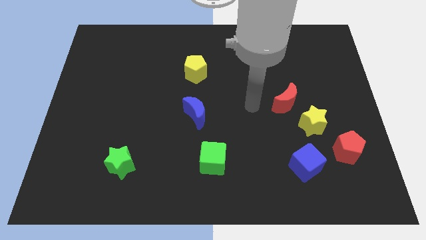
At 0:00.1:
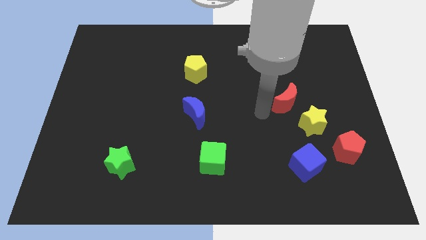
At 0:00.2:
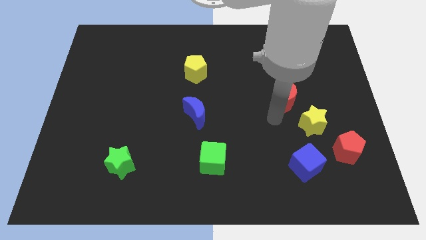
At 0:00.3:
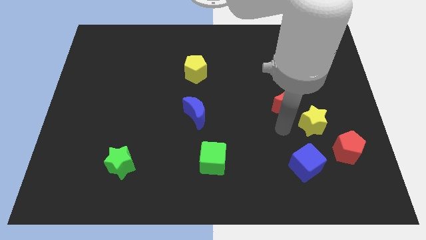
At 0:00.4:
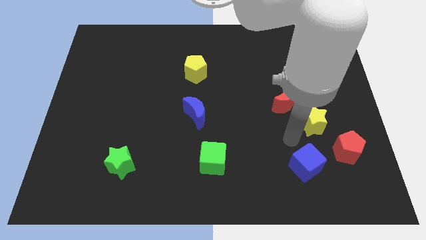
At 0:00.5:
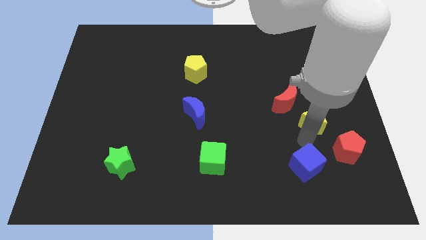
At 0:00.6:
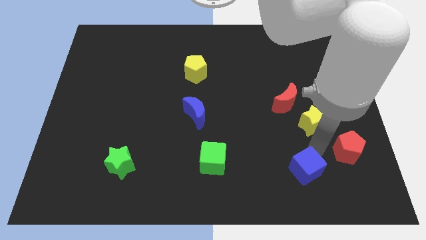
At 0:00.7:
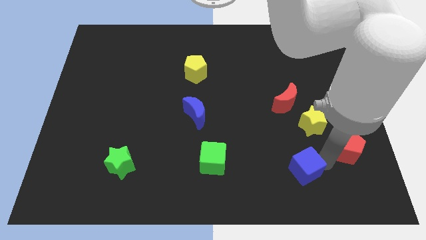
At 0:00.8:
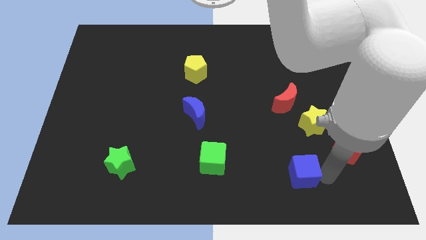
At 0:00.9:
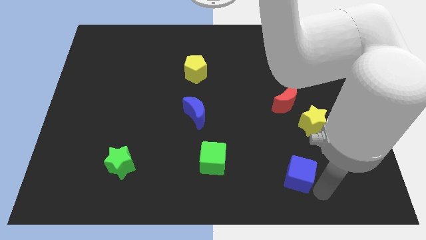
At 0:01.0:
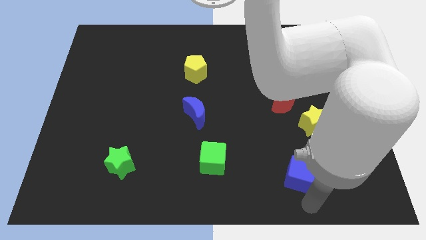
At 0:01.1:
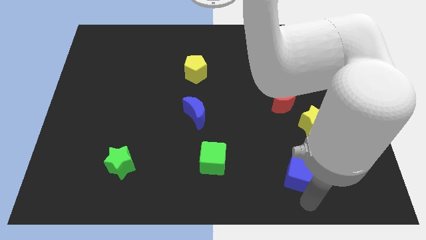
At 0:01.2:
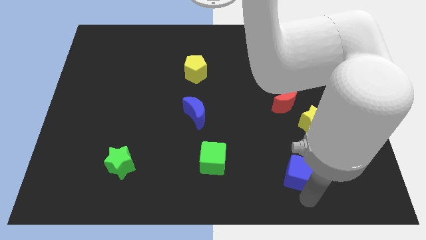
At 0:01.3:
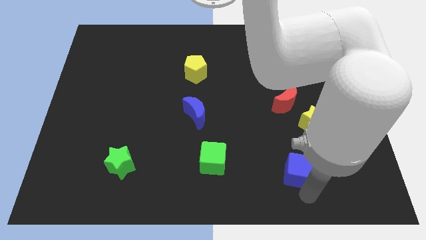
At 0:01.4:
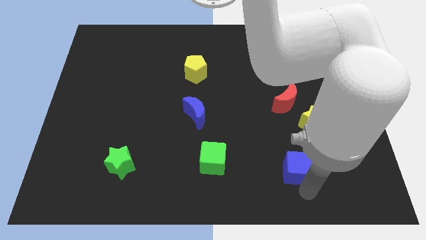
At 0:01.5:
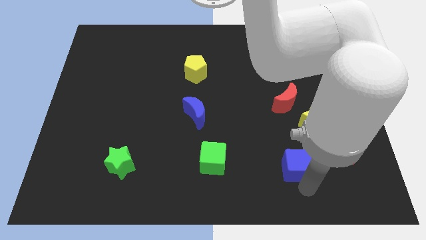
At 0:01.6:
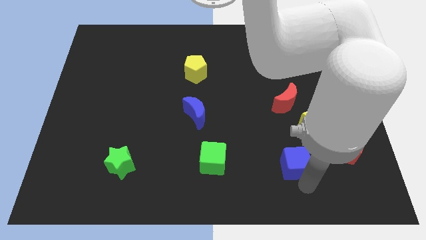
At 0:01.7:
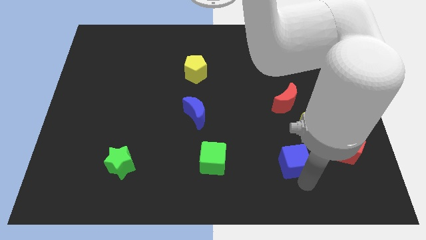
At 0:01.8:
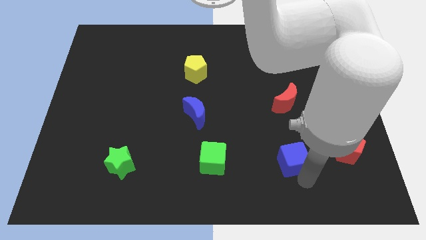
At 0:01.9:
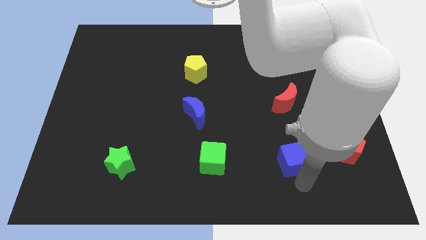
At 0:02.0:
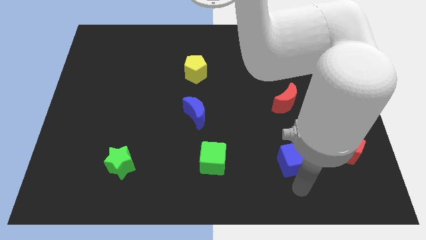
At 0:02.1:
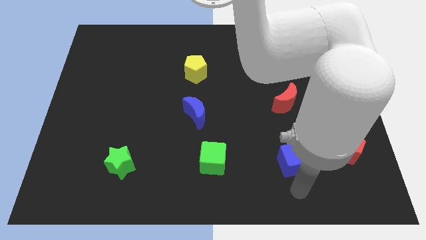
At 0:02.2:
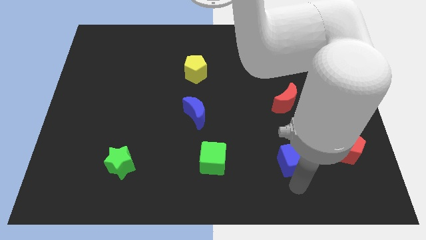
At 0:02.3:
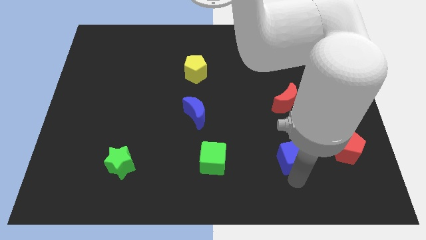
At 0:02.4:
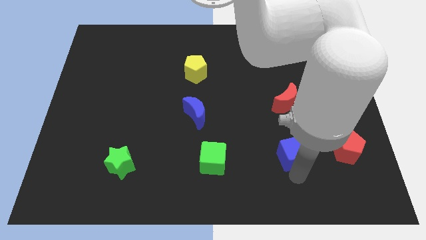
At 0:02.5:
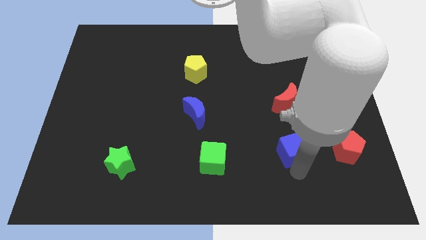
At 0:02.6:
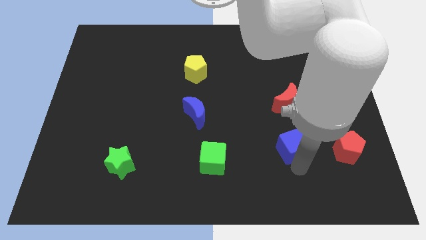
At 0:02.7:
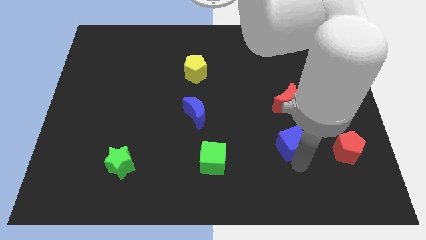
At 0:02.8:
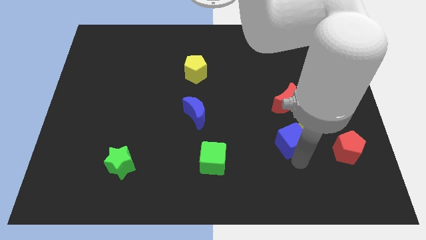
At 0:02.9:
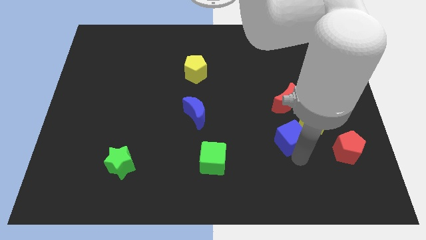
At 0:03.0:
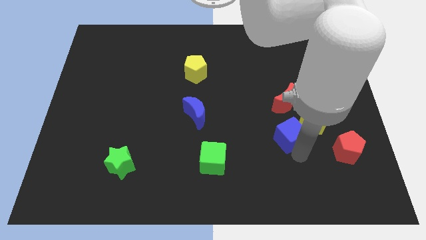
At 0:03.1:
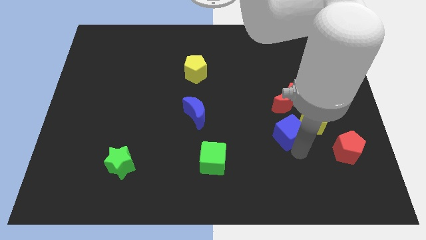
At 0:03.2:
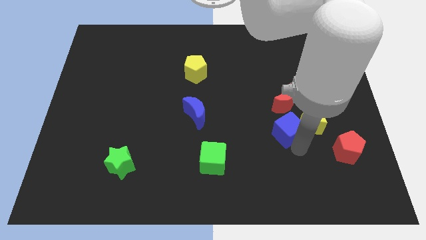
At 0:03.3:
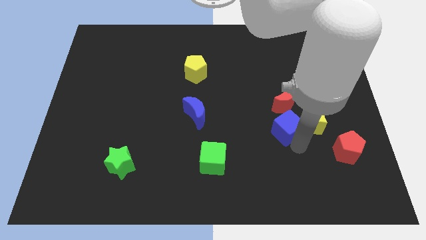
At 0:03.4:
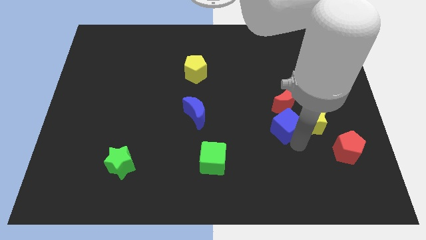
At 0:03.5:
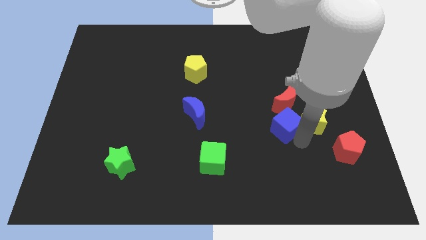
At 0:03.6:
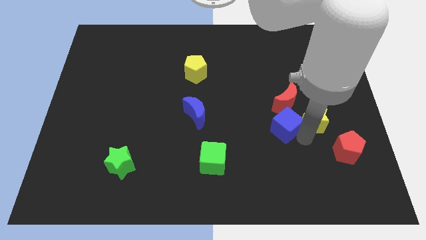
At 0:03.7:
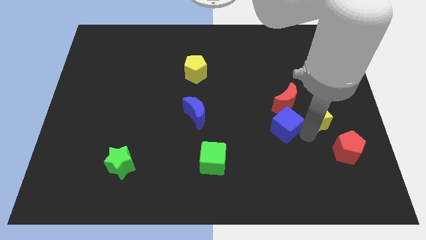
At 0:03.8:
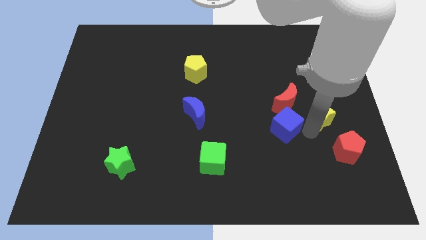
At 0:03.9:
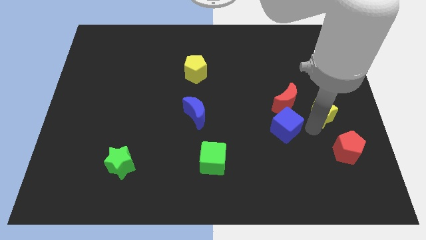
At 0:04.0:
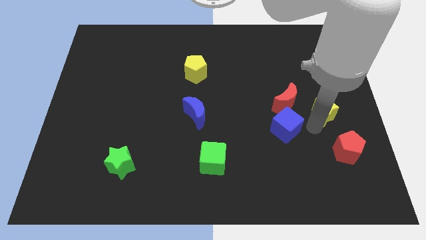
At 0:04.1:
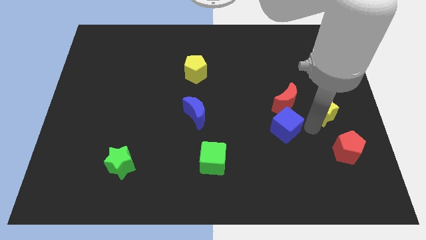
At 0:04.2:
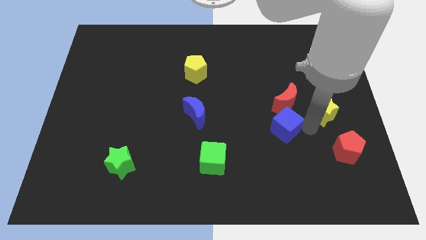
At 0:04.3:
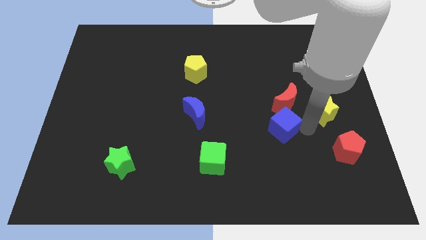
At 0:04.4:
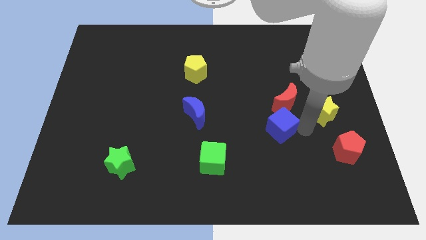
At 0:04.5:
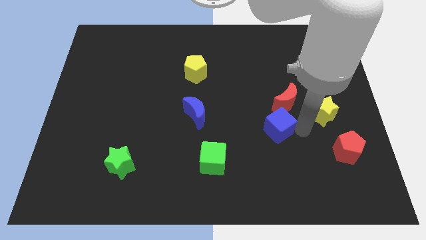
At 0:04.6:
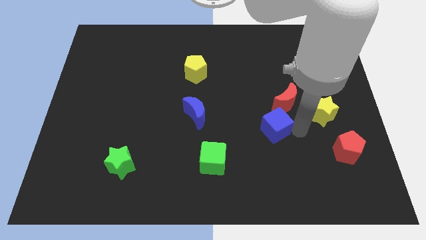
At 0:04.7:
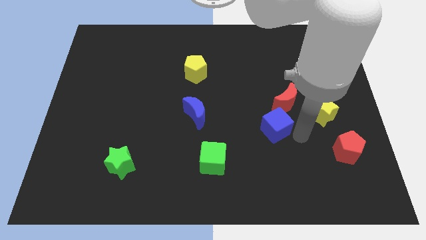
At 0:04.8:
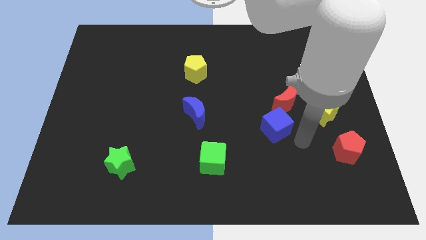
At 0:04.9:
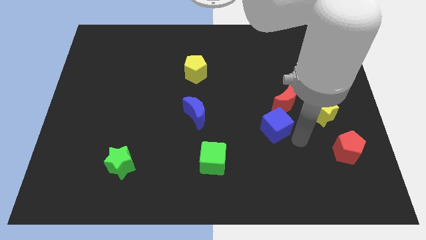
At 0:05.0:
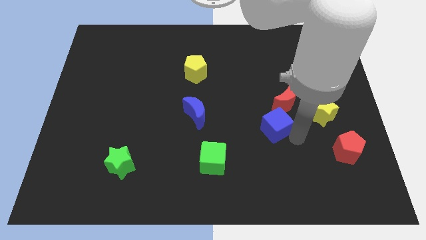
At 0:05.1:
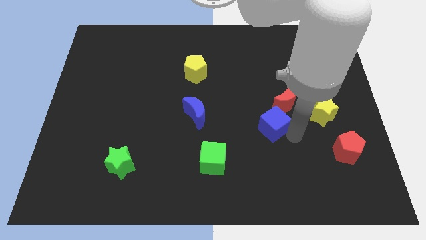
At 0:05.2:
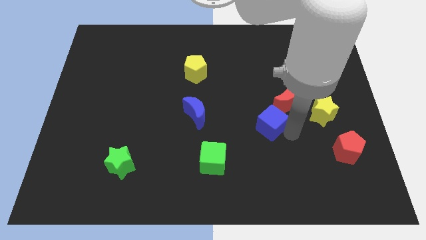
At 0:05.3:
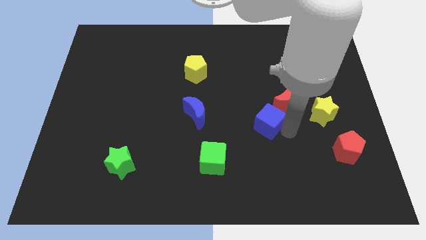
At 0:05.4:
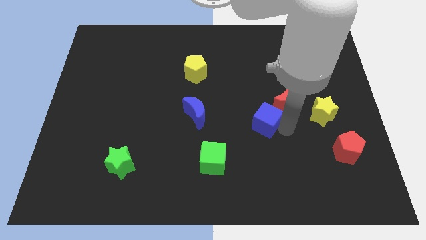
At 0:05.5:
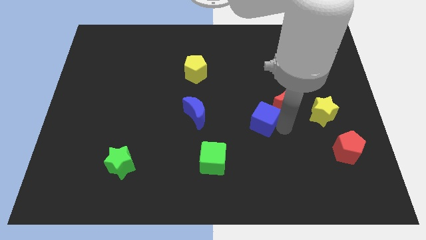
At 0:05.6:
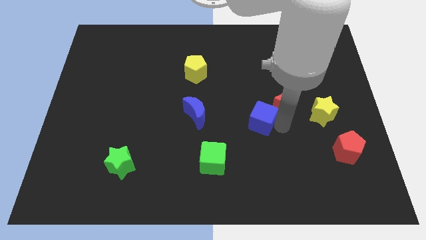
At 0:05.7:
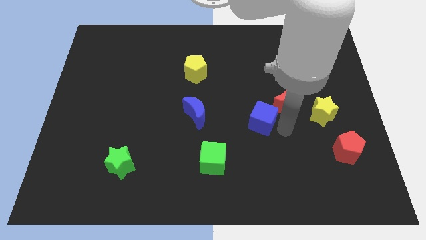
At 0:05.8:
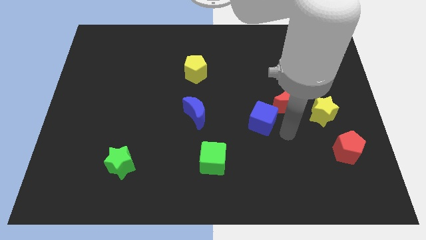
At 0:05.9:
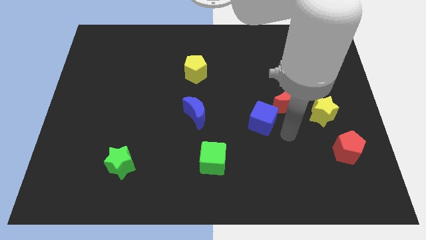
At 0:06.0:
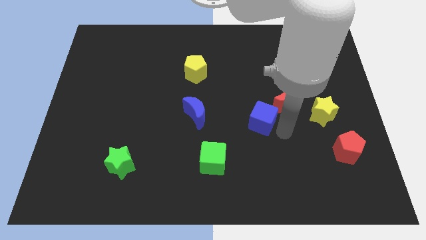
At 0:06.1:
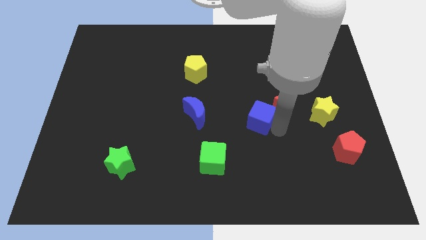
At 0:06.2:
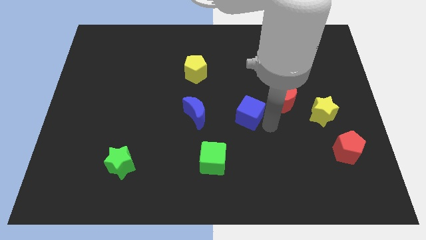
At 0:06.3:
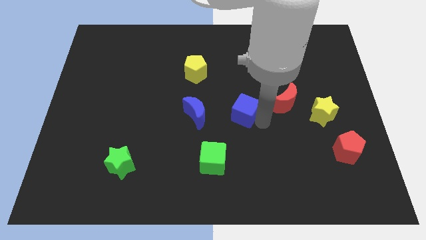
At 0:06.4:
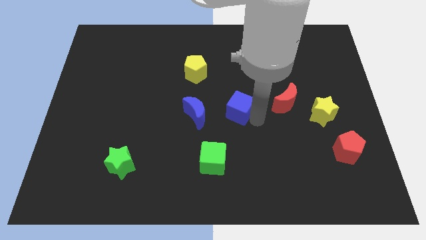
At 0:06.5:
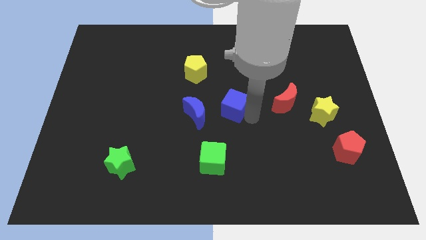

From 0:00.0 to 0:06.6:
move the blue cube up and to the left

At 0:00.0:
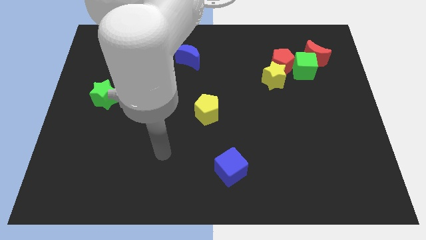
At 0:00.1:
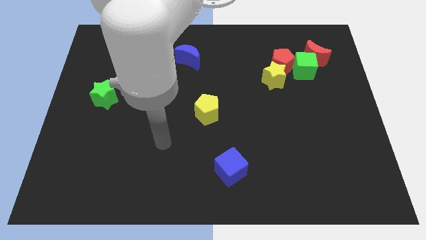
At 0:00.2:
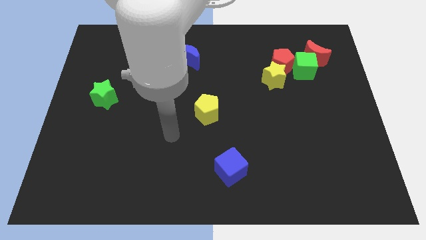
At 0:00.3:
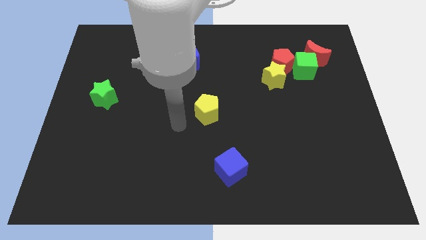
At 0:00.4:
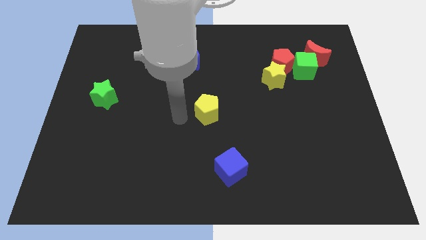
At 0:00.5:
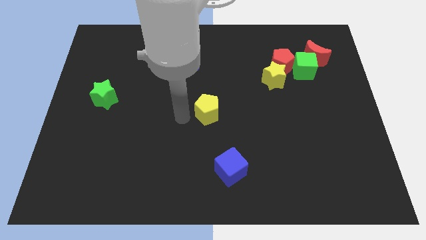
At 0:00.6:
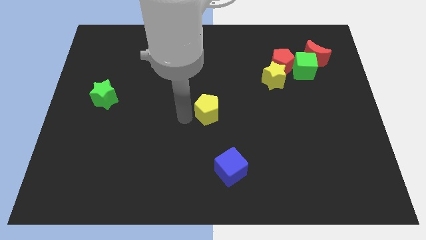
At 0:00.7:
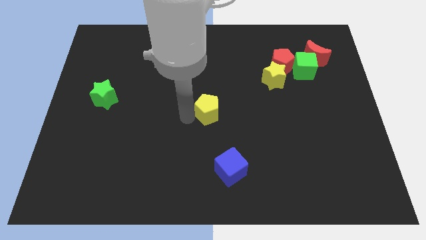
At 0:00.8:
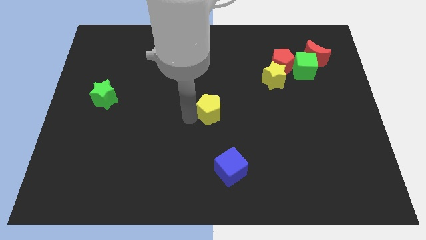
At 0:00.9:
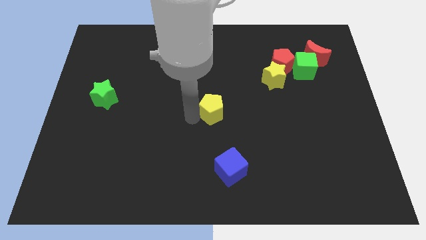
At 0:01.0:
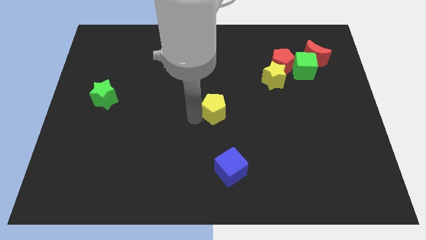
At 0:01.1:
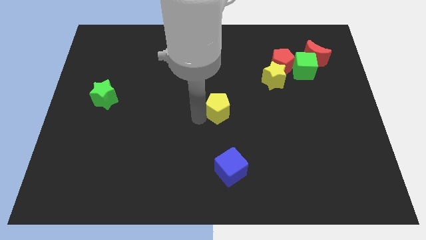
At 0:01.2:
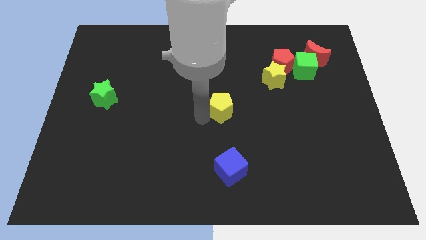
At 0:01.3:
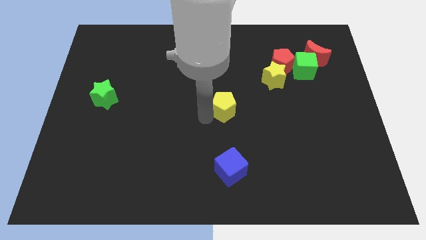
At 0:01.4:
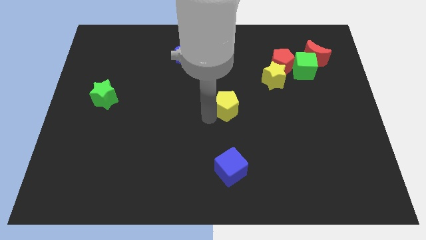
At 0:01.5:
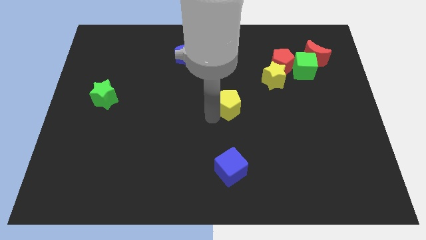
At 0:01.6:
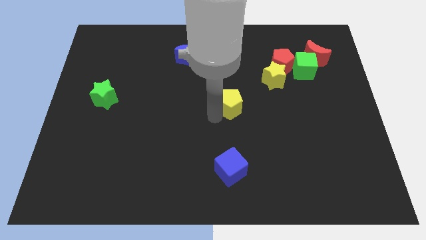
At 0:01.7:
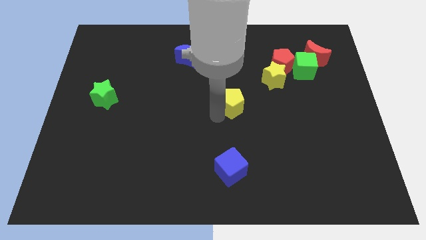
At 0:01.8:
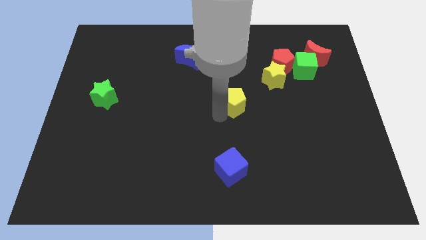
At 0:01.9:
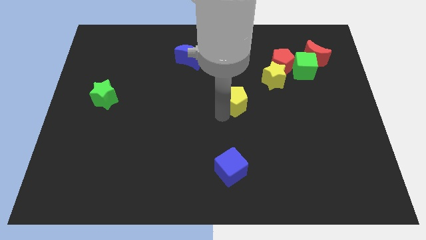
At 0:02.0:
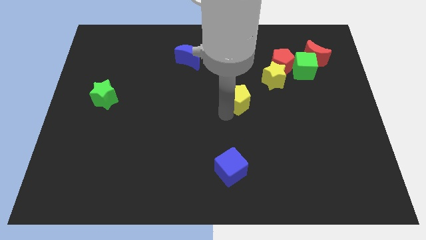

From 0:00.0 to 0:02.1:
move the yellow pentagon right somewhat
